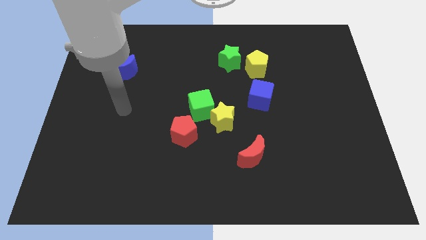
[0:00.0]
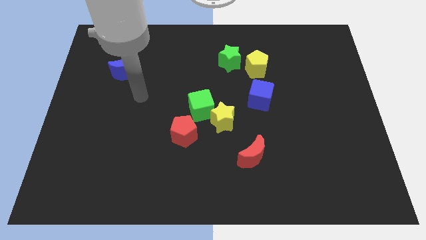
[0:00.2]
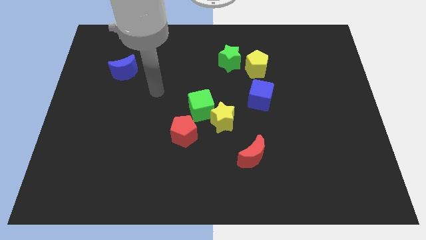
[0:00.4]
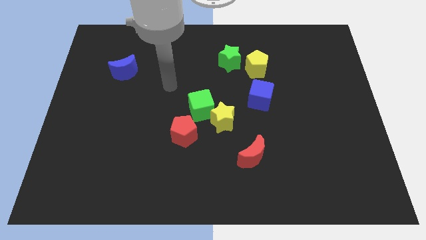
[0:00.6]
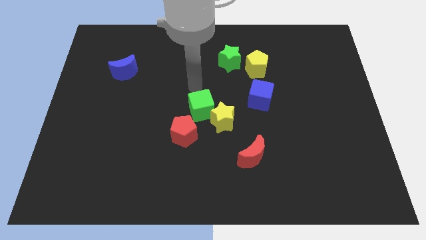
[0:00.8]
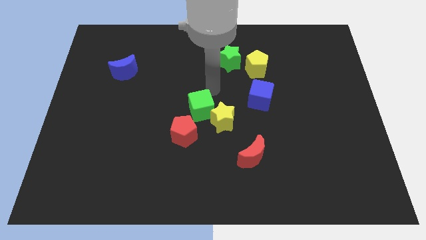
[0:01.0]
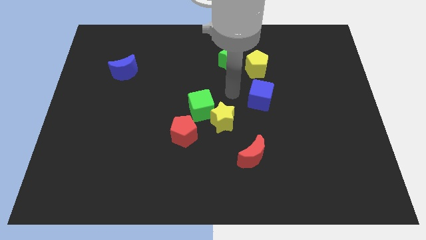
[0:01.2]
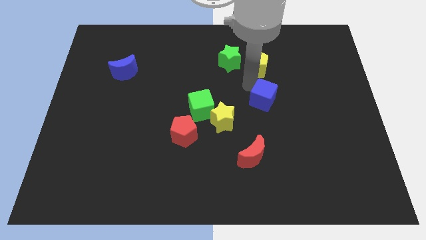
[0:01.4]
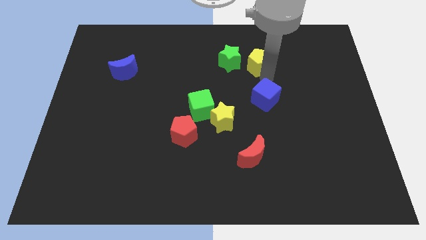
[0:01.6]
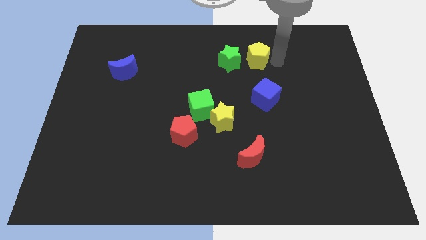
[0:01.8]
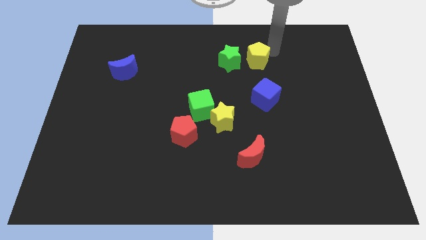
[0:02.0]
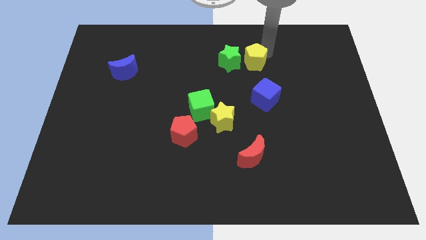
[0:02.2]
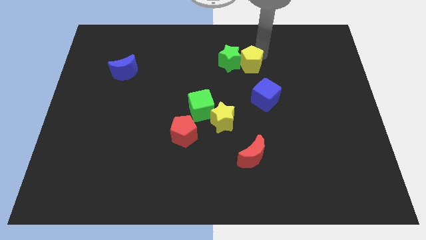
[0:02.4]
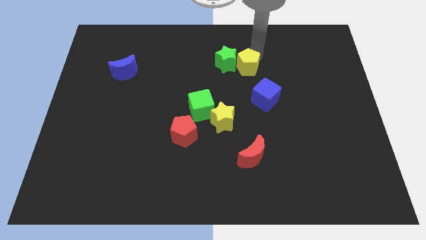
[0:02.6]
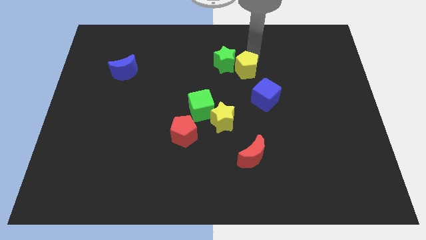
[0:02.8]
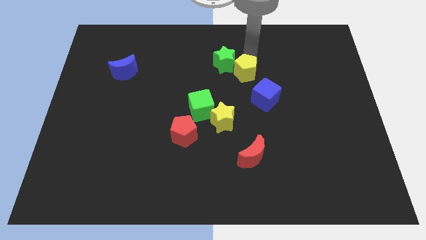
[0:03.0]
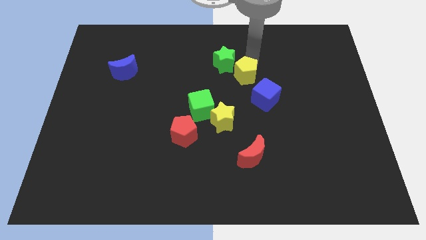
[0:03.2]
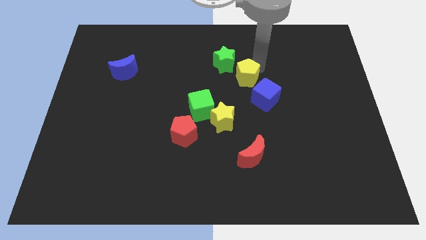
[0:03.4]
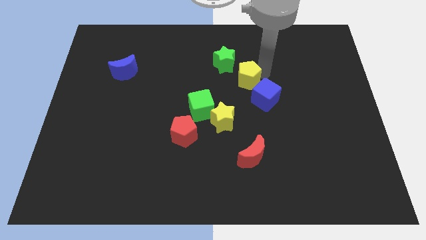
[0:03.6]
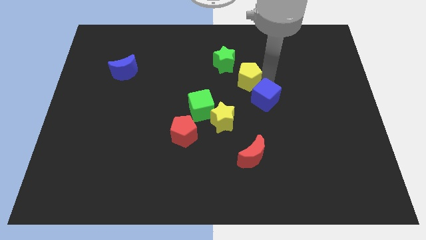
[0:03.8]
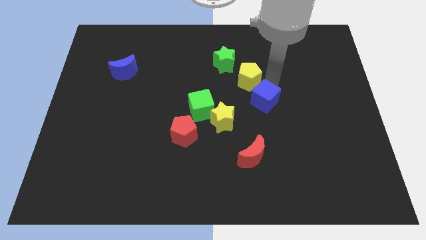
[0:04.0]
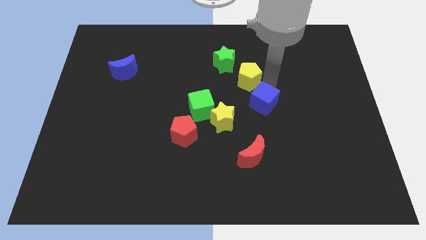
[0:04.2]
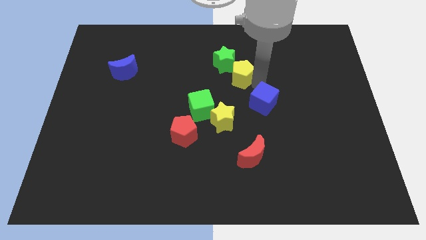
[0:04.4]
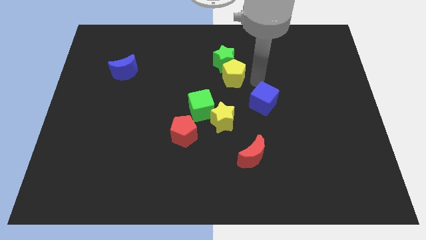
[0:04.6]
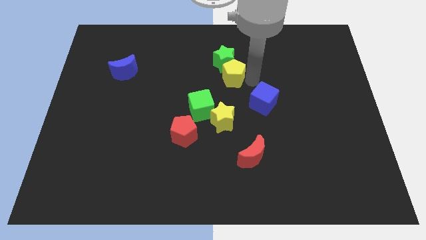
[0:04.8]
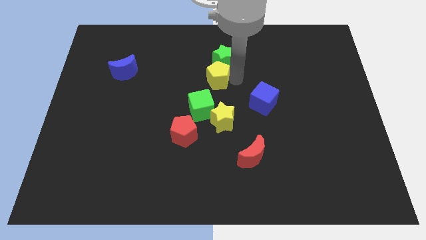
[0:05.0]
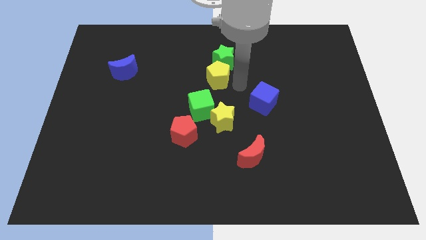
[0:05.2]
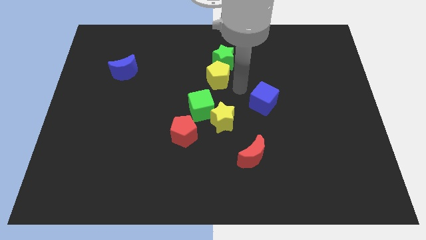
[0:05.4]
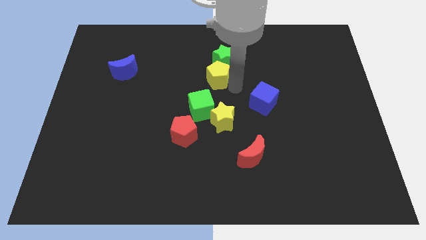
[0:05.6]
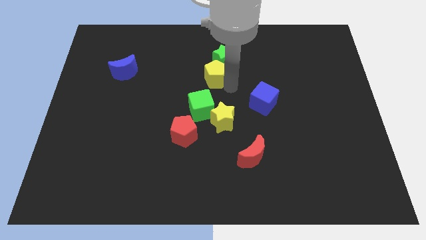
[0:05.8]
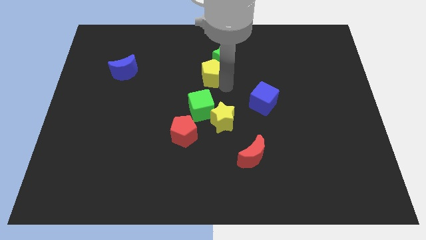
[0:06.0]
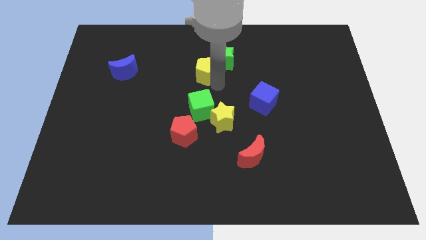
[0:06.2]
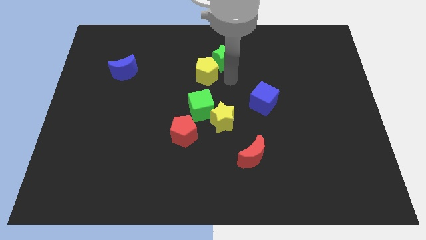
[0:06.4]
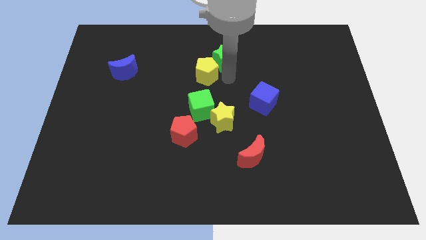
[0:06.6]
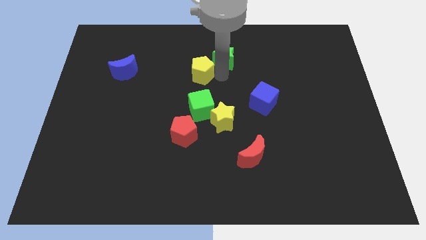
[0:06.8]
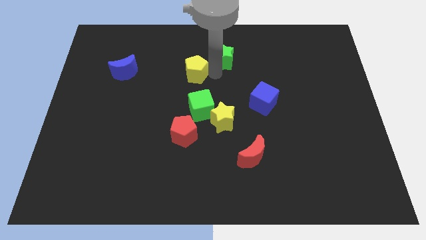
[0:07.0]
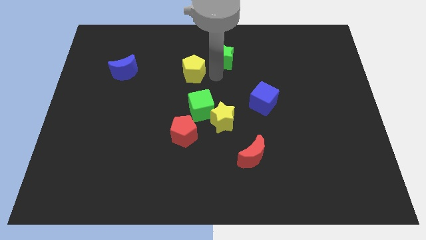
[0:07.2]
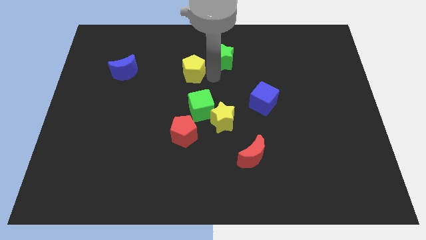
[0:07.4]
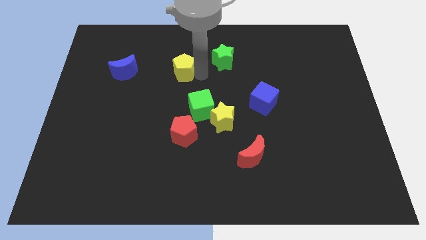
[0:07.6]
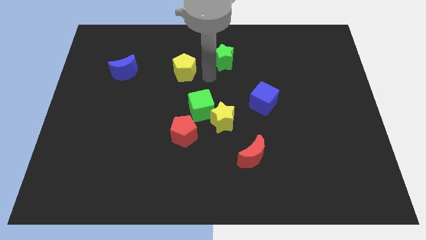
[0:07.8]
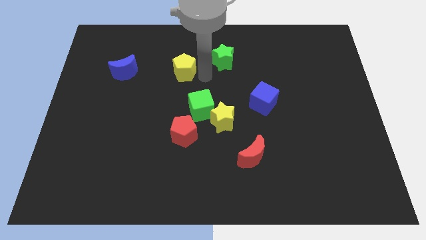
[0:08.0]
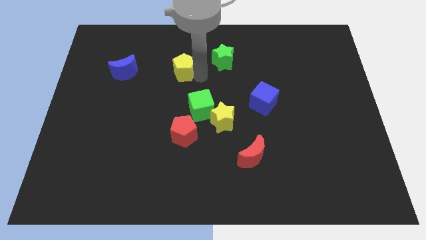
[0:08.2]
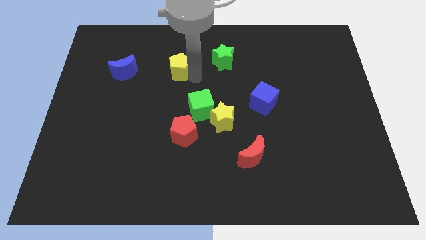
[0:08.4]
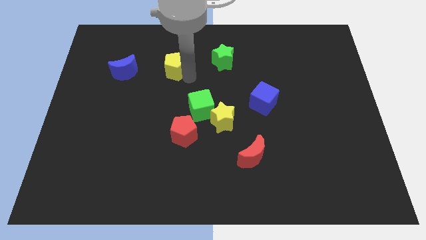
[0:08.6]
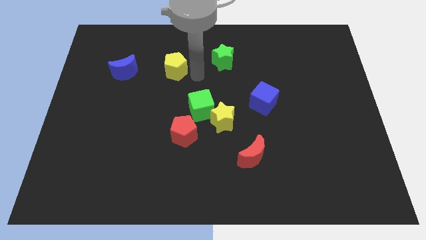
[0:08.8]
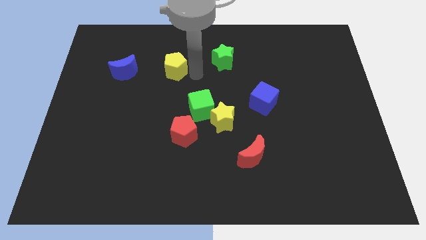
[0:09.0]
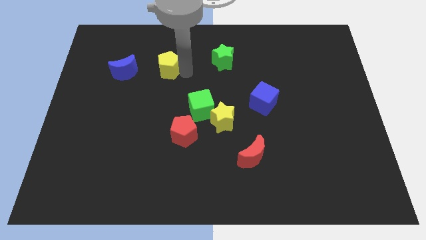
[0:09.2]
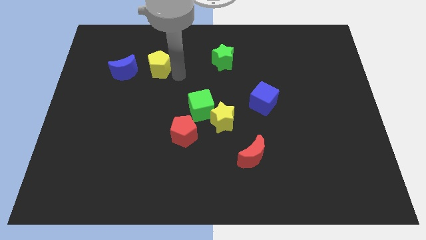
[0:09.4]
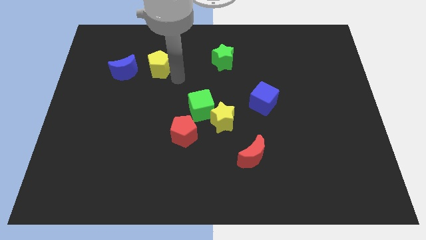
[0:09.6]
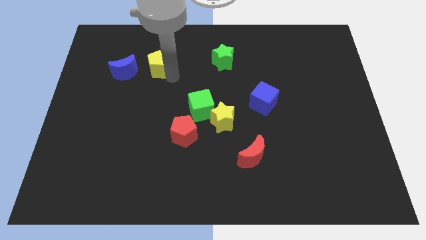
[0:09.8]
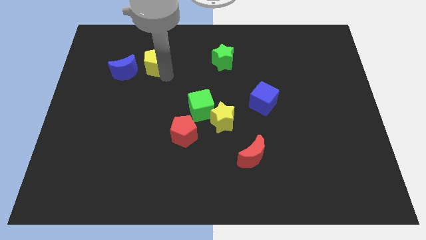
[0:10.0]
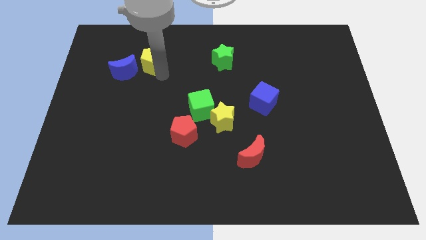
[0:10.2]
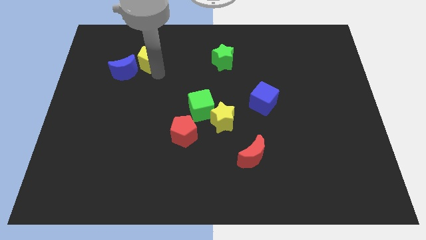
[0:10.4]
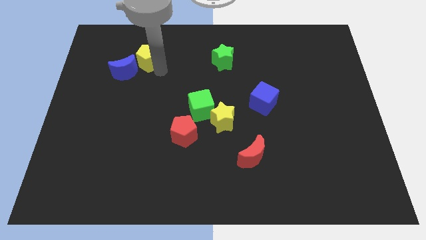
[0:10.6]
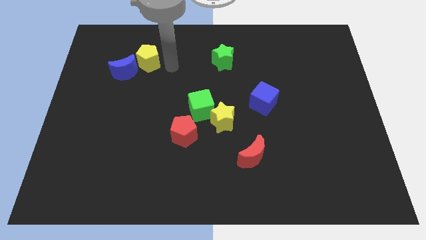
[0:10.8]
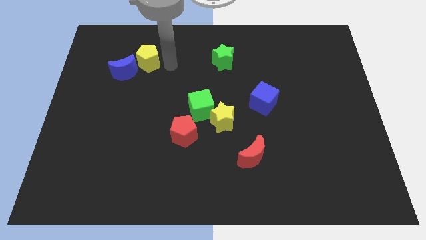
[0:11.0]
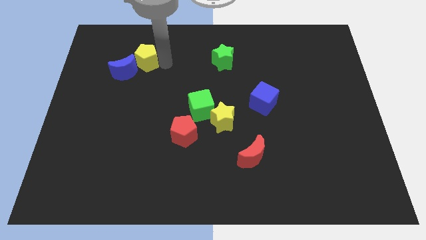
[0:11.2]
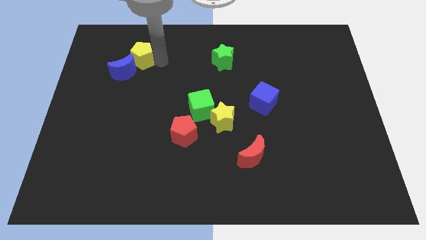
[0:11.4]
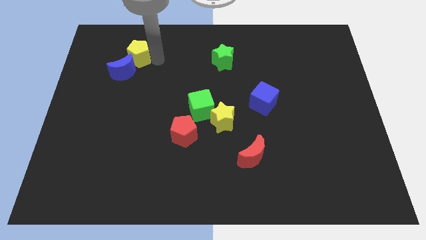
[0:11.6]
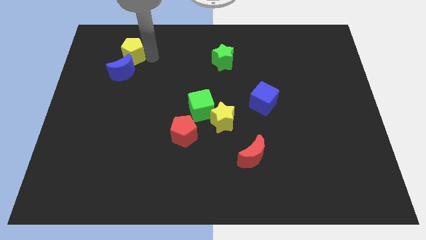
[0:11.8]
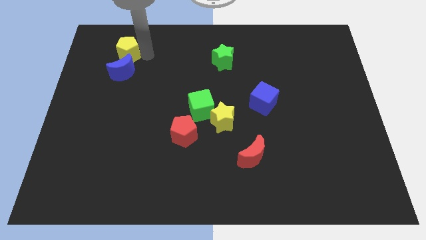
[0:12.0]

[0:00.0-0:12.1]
move the yellow pentagon to the top left of the blue moon

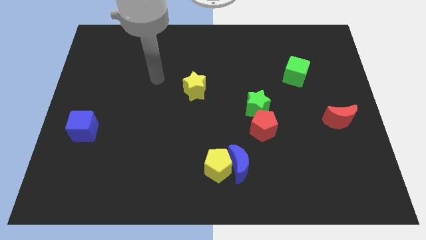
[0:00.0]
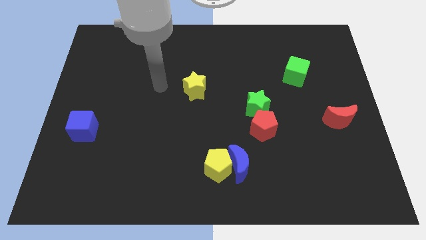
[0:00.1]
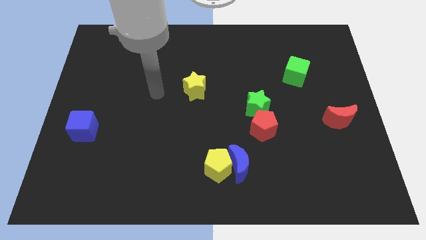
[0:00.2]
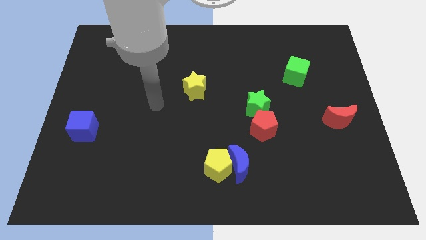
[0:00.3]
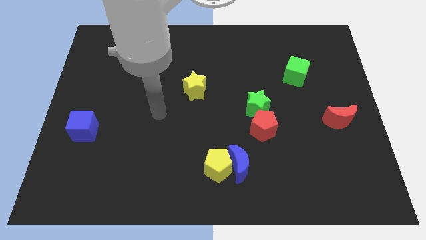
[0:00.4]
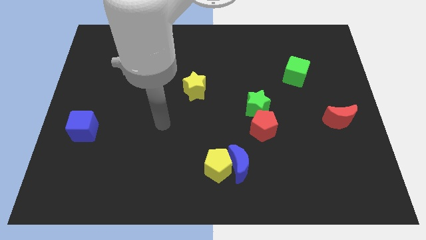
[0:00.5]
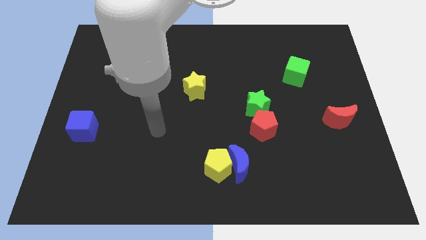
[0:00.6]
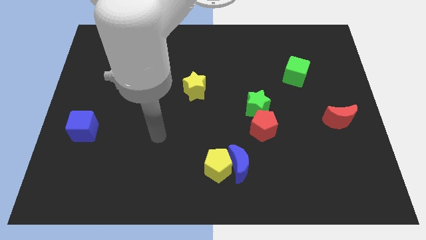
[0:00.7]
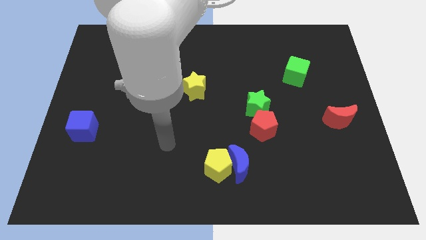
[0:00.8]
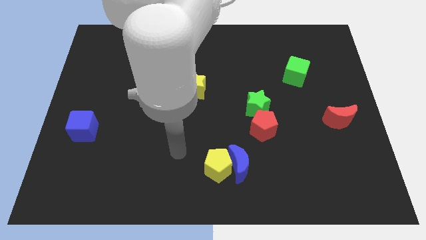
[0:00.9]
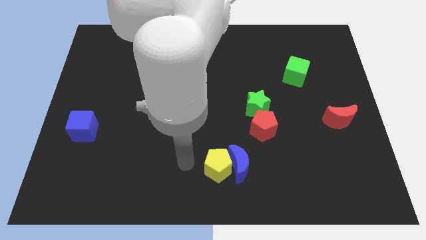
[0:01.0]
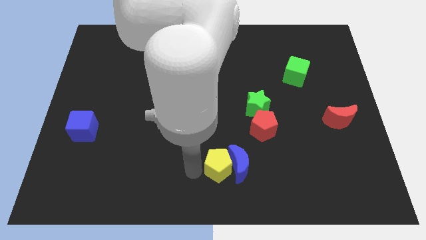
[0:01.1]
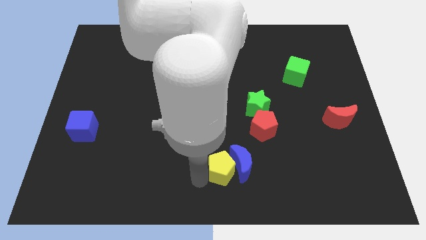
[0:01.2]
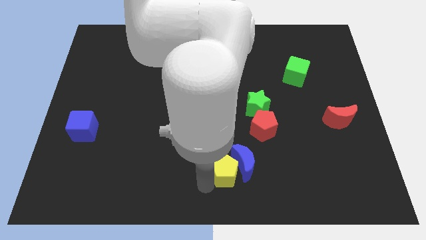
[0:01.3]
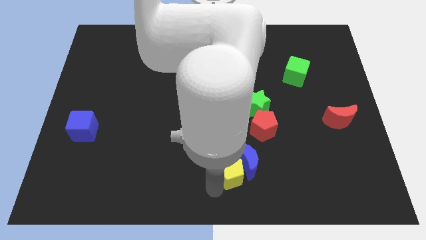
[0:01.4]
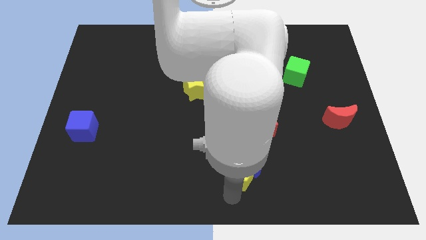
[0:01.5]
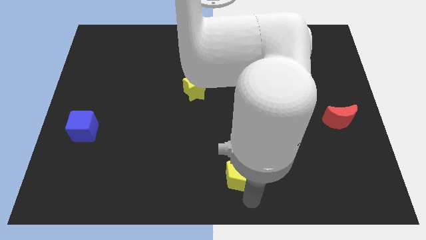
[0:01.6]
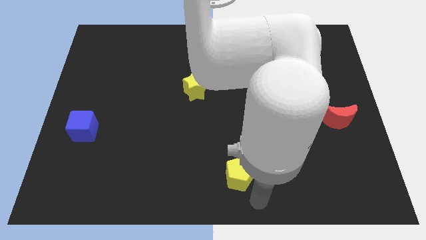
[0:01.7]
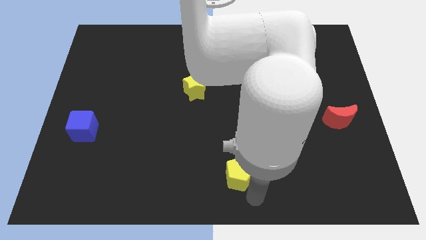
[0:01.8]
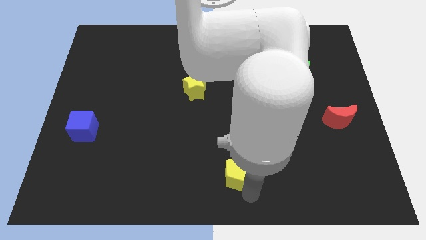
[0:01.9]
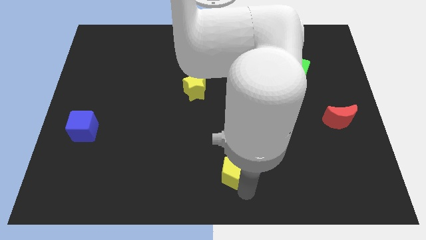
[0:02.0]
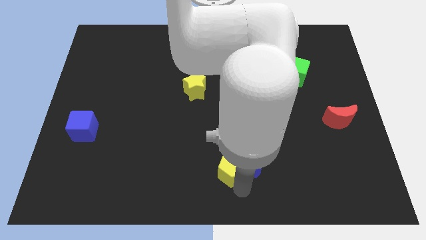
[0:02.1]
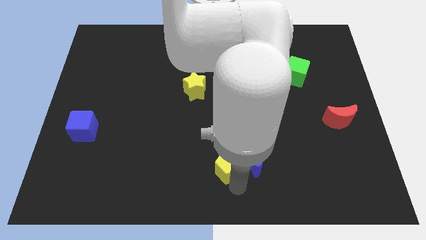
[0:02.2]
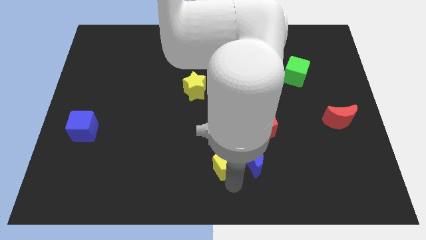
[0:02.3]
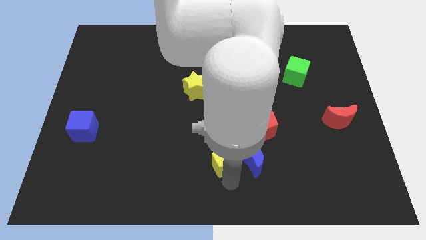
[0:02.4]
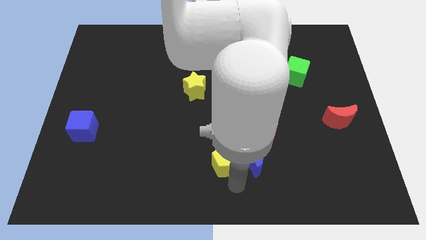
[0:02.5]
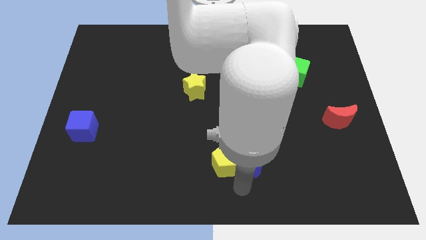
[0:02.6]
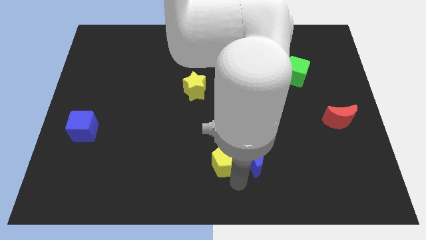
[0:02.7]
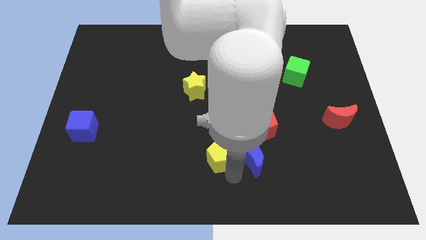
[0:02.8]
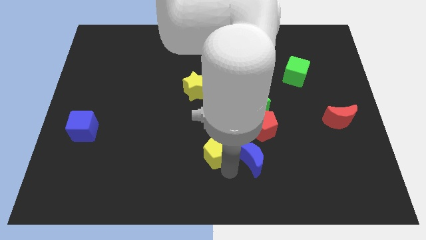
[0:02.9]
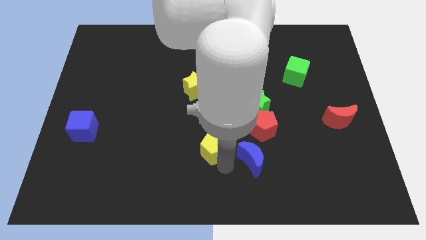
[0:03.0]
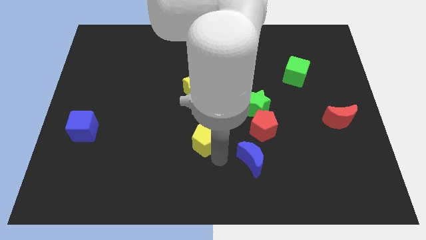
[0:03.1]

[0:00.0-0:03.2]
push the yellow pentagon to the bottom of the yellow star
